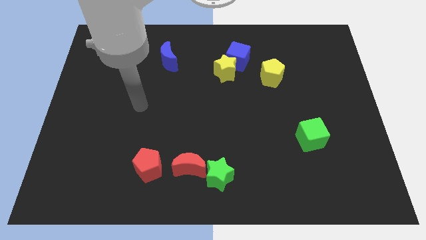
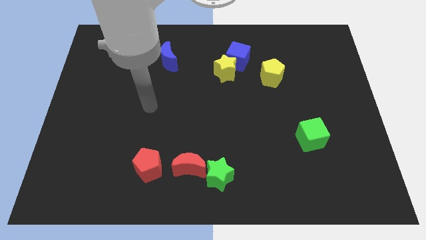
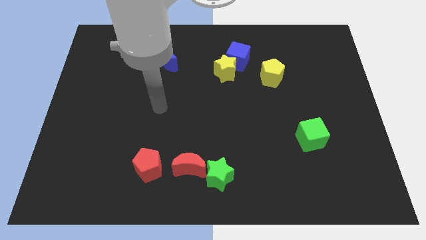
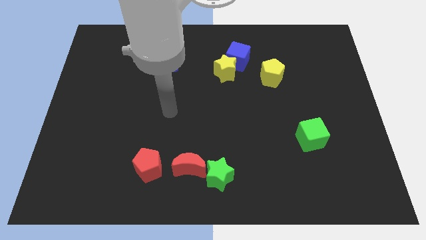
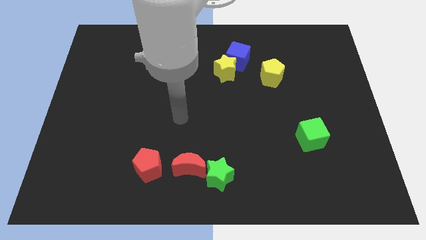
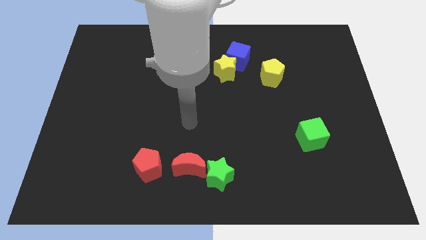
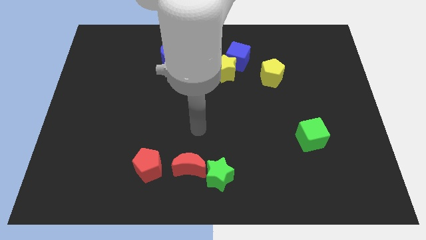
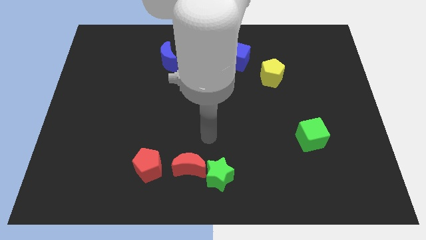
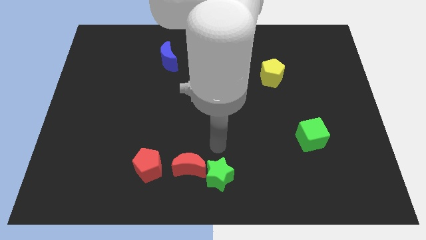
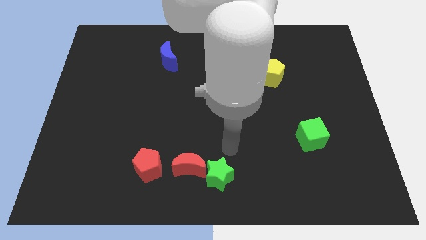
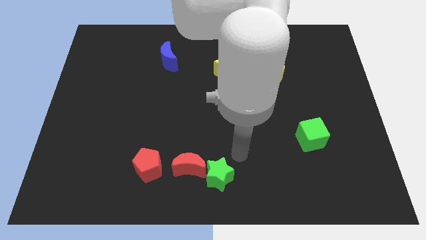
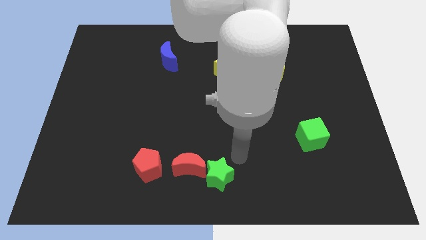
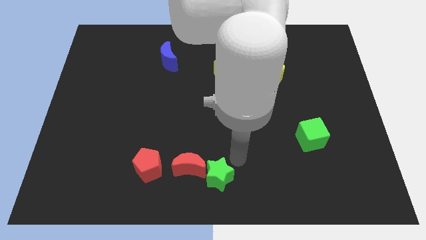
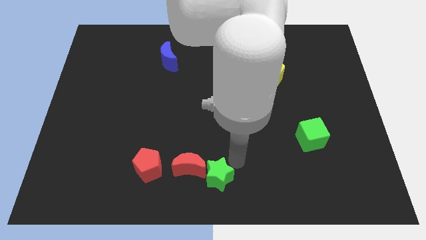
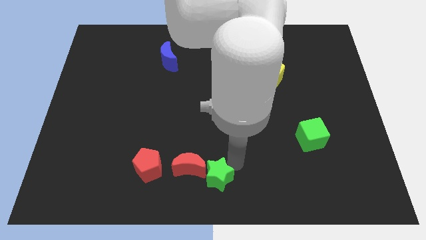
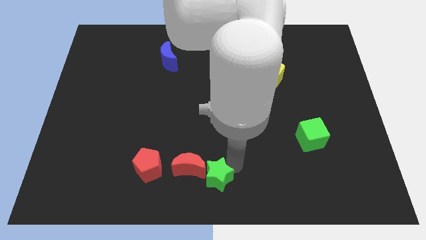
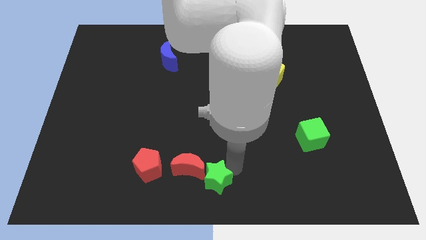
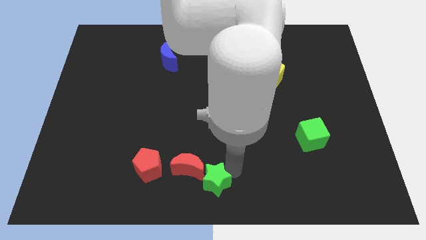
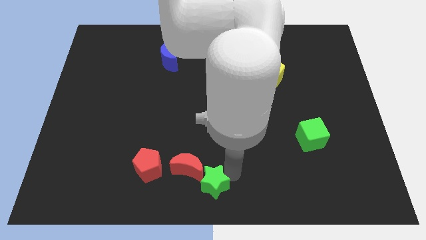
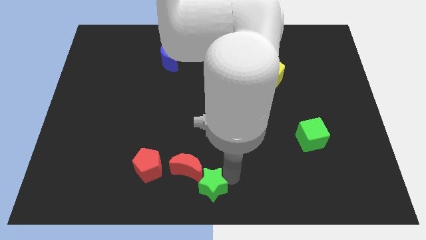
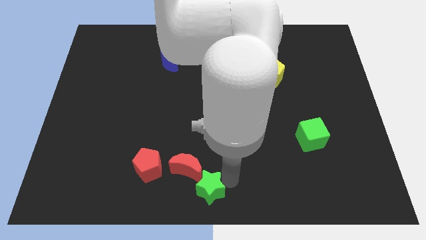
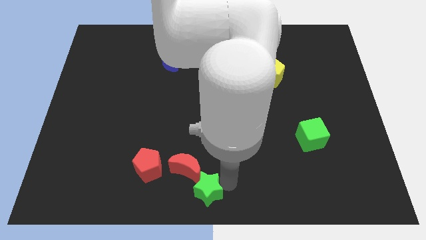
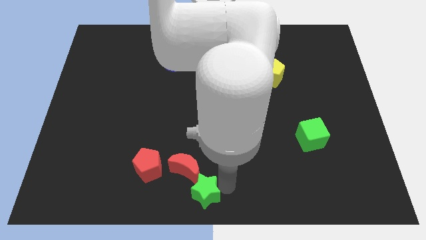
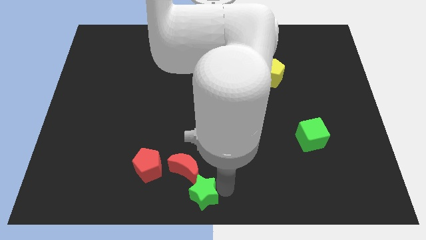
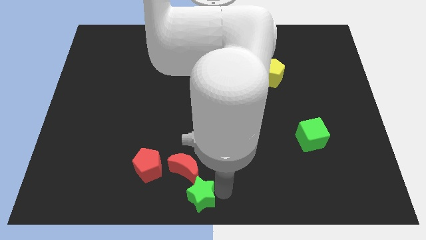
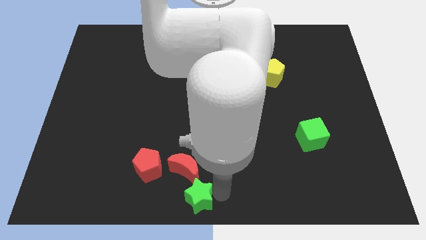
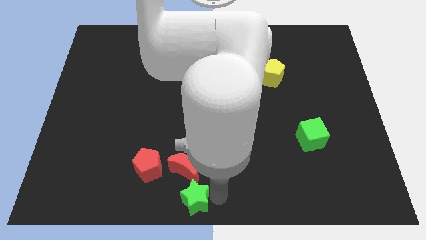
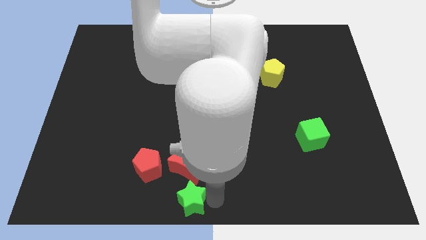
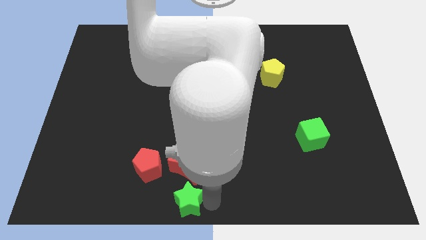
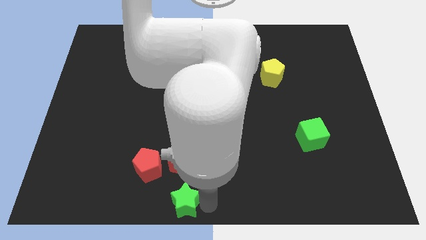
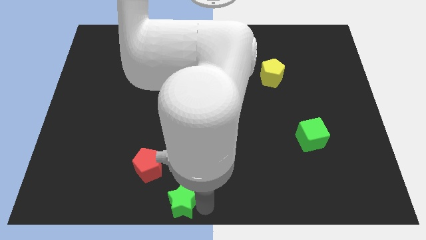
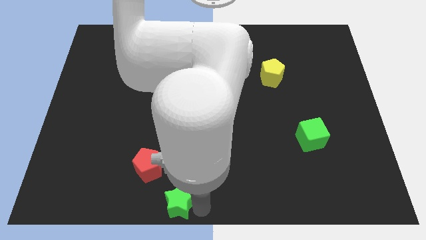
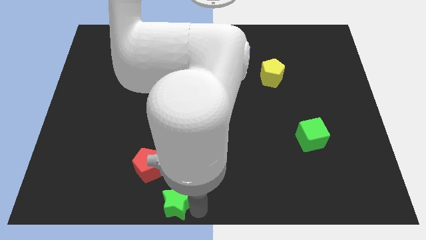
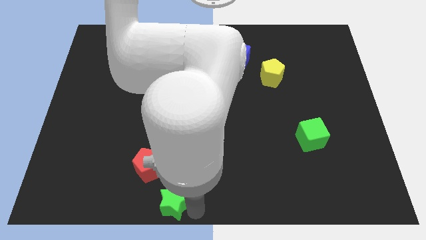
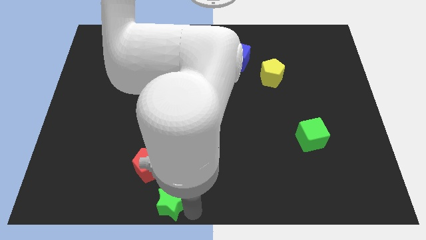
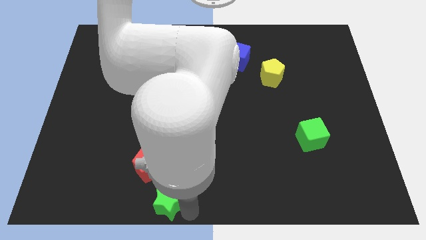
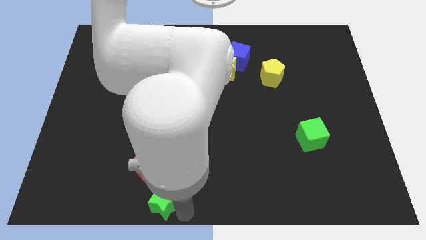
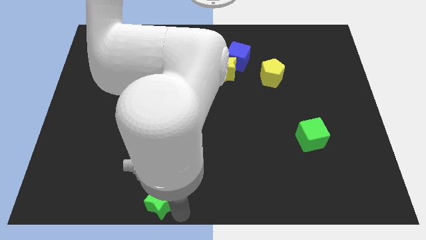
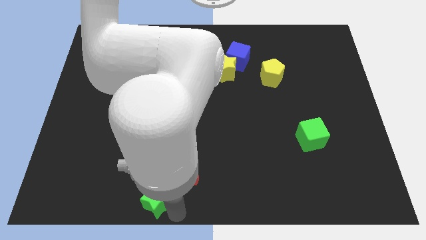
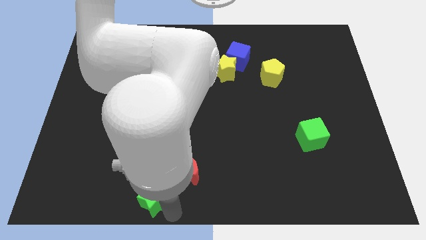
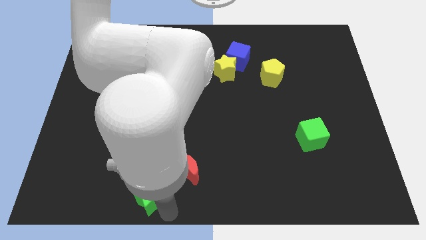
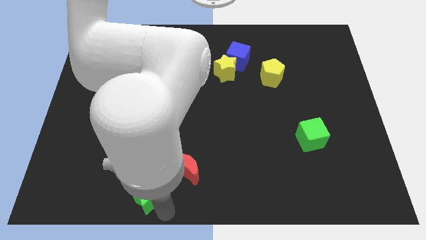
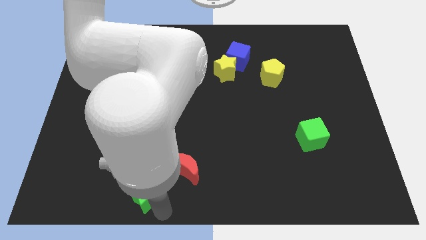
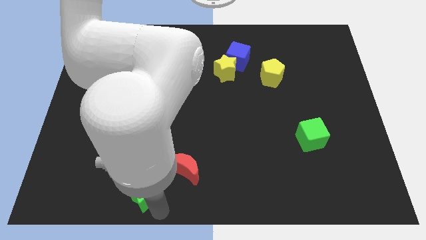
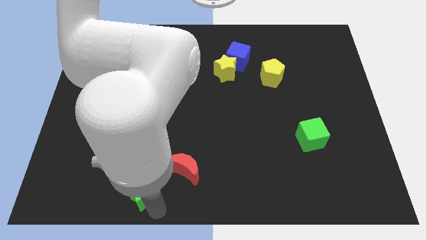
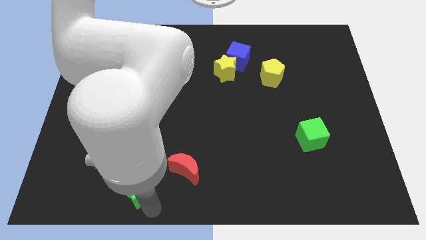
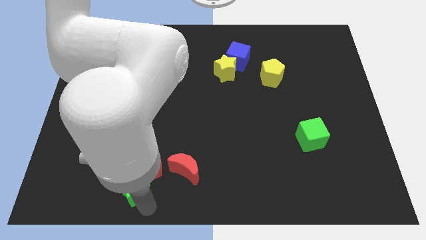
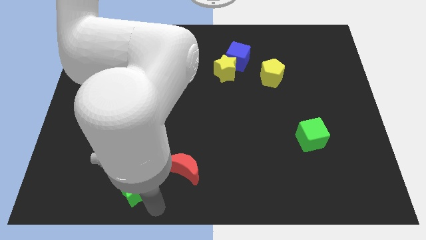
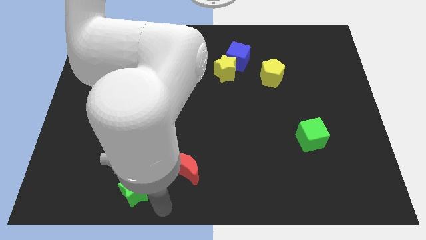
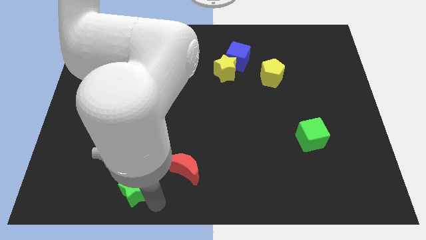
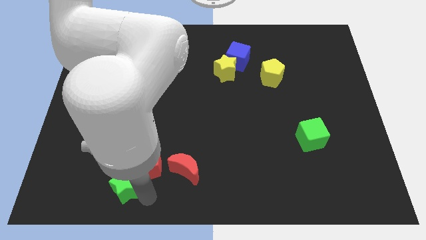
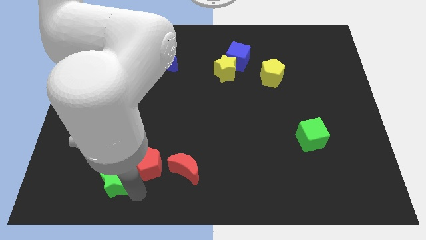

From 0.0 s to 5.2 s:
push the green star to the left side of the red pentagon

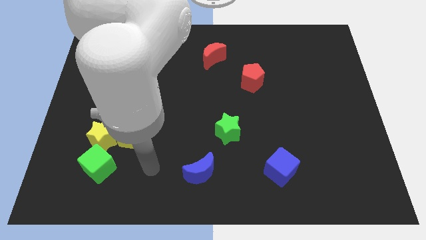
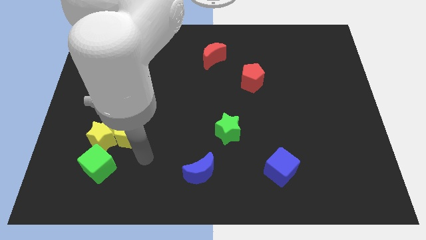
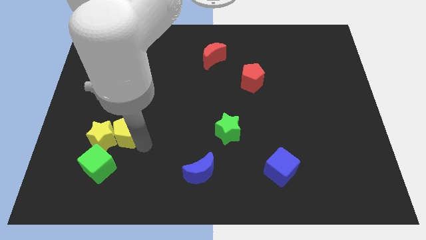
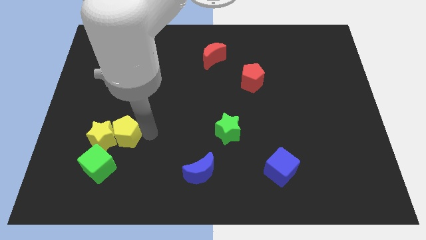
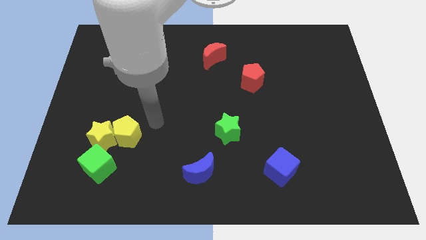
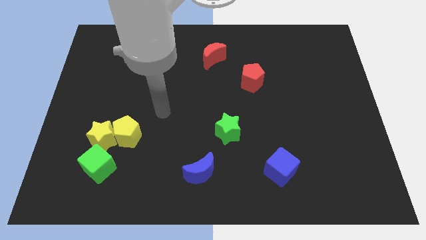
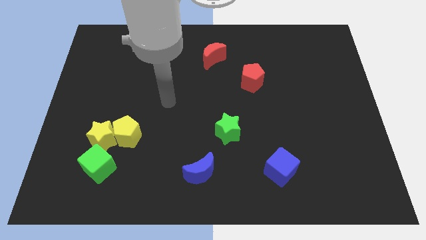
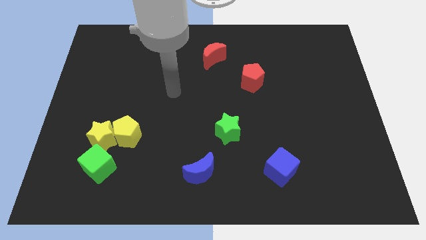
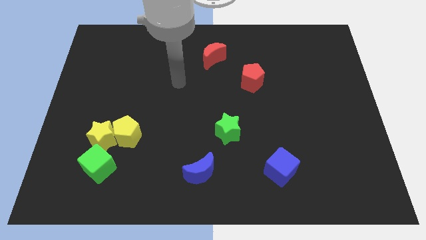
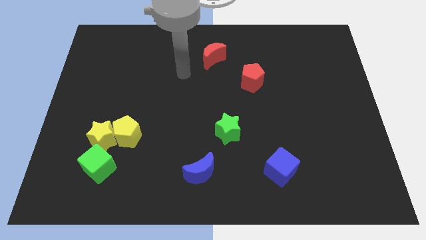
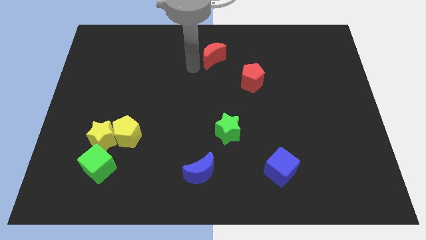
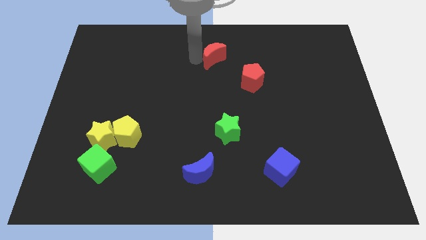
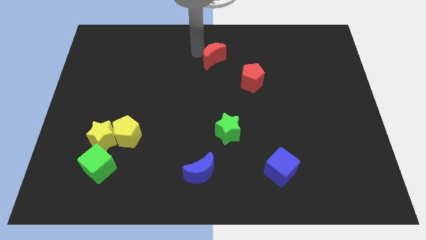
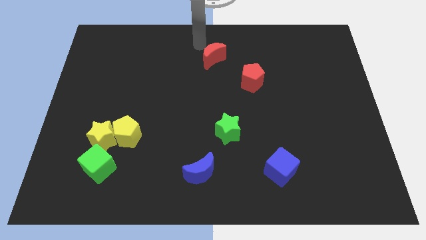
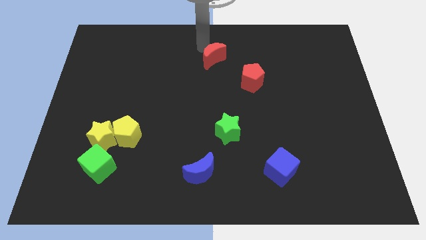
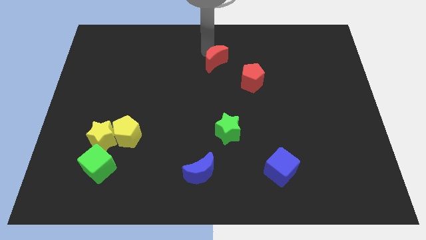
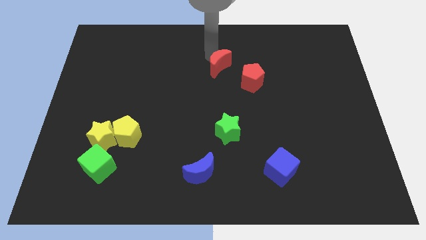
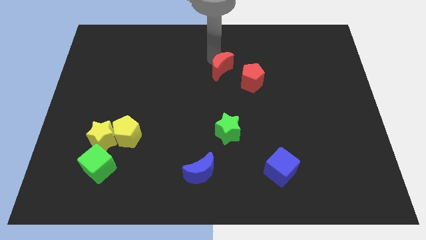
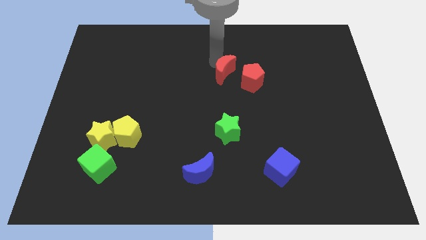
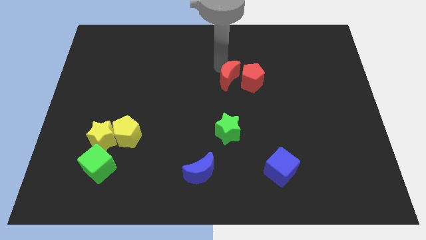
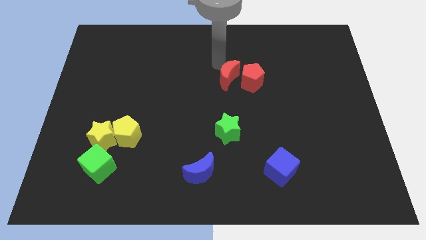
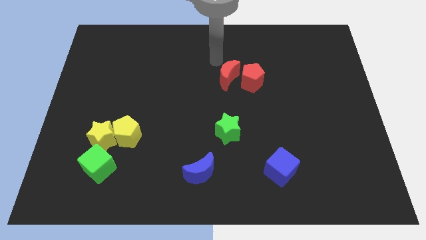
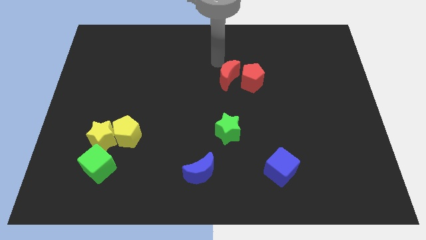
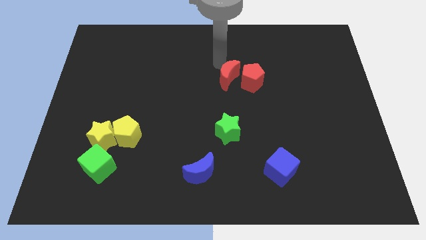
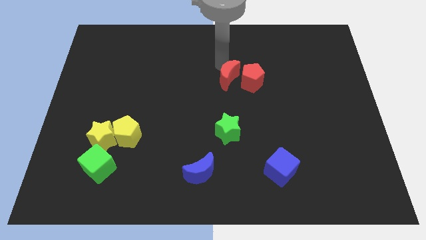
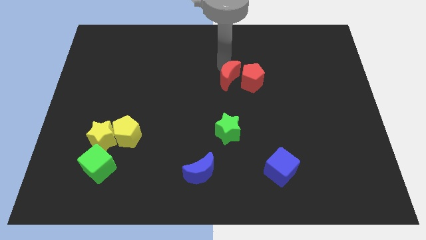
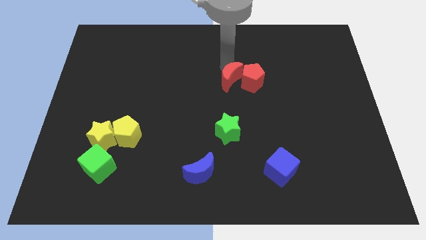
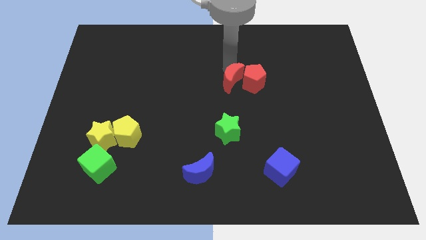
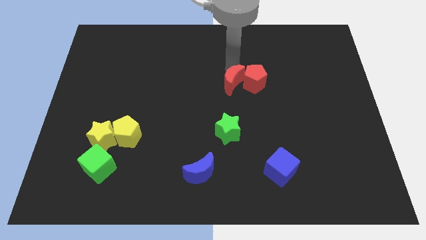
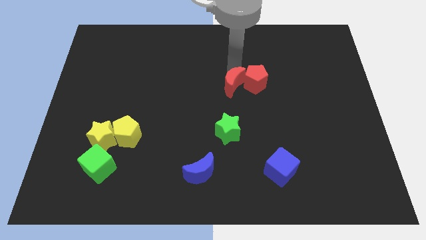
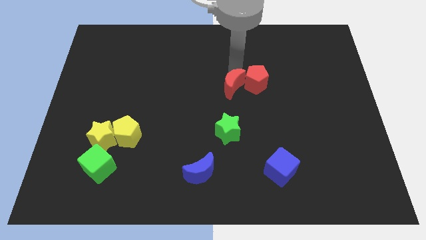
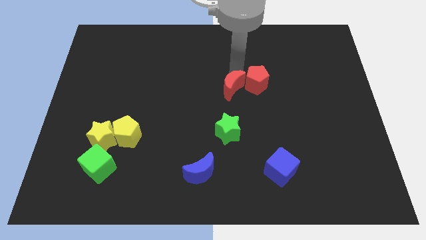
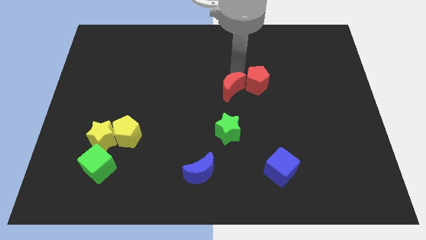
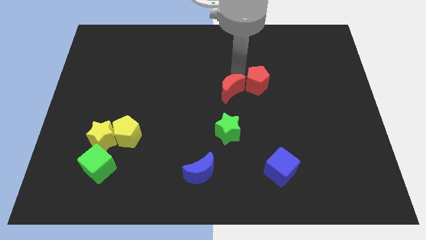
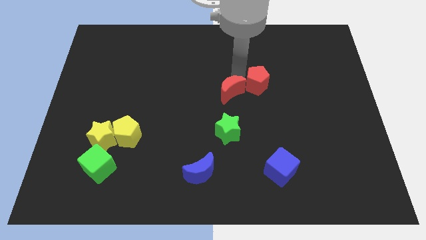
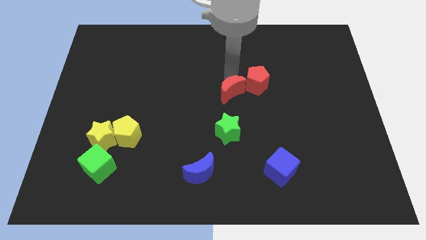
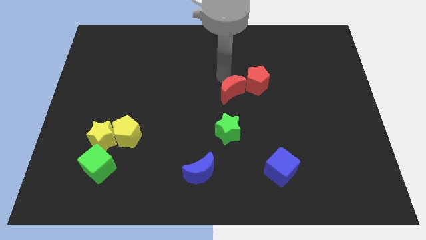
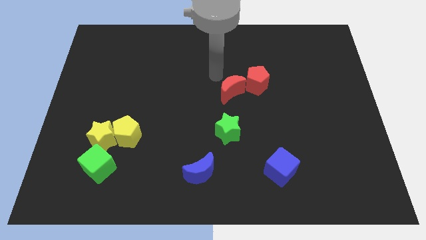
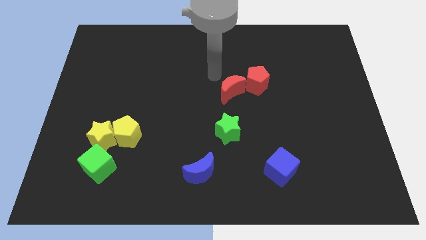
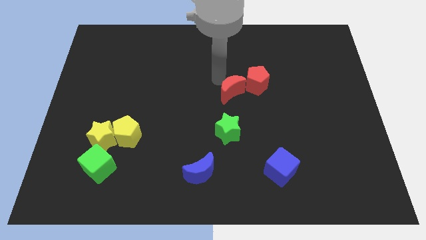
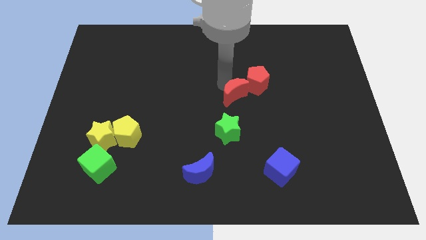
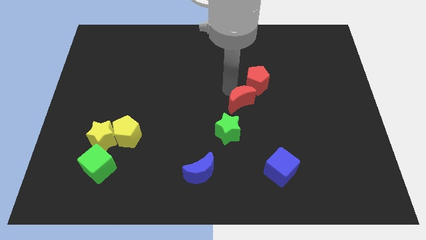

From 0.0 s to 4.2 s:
push the red moon below the red pentagon
